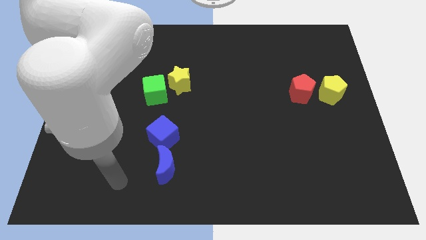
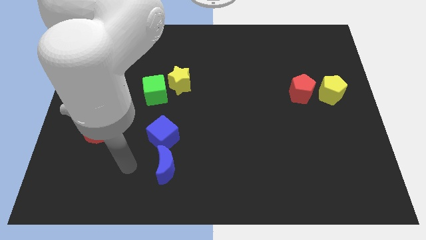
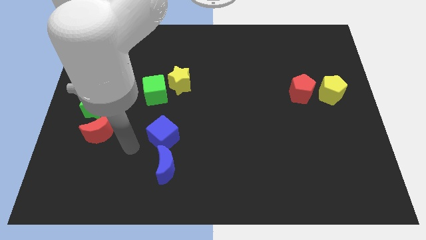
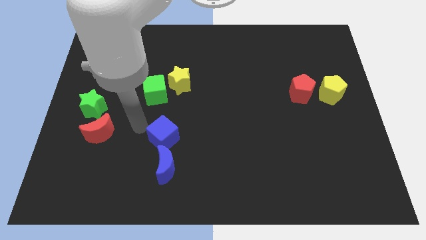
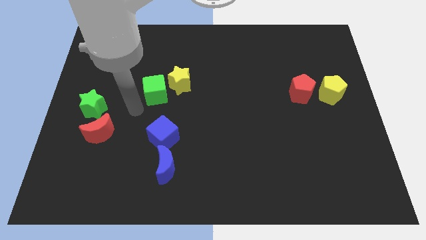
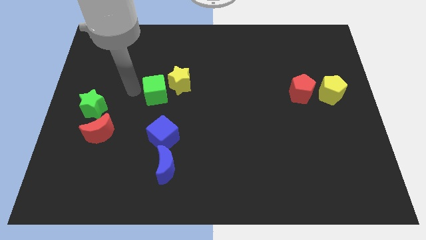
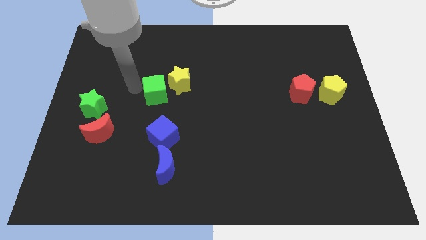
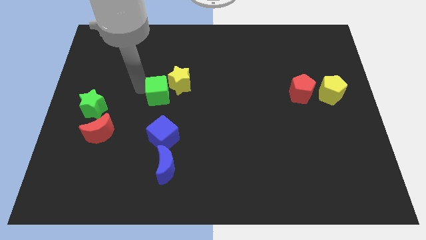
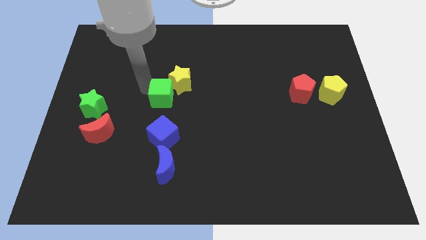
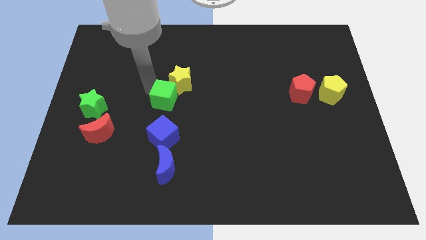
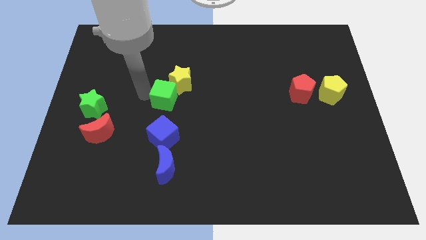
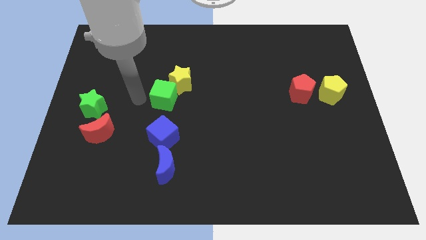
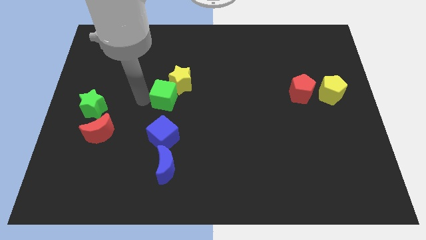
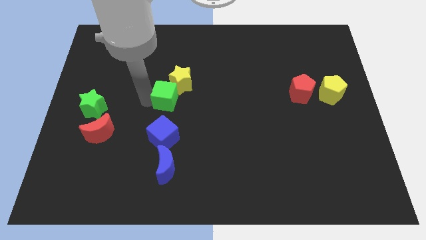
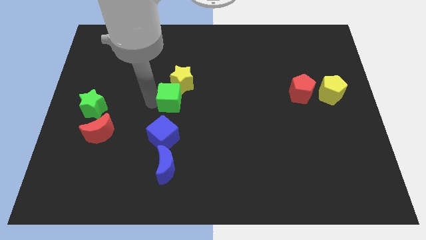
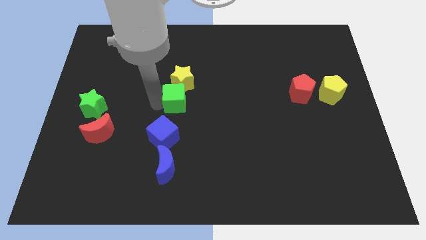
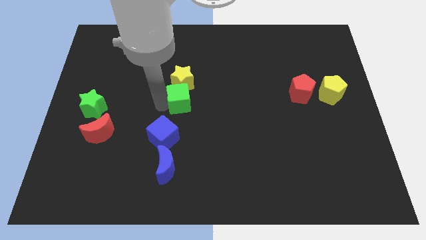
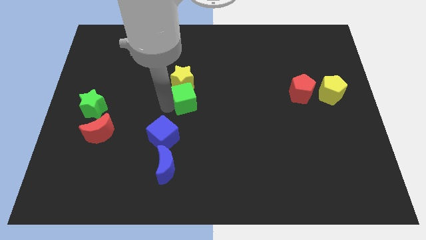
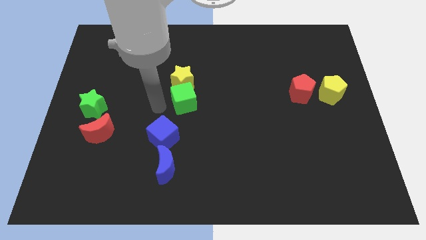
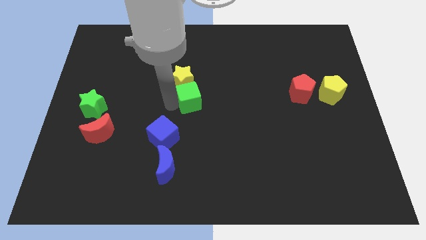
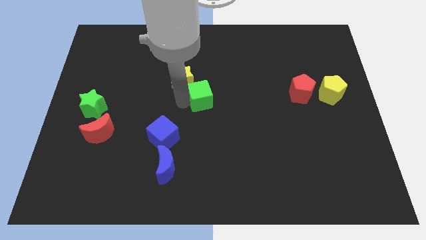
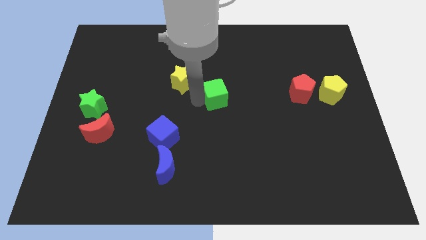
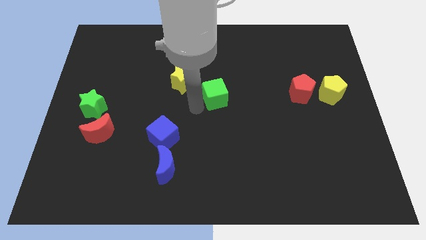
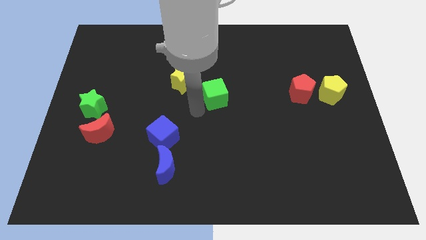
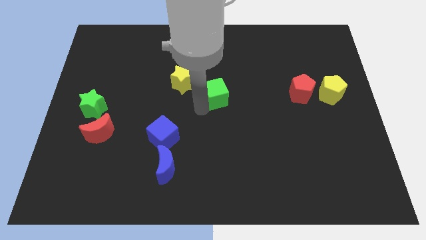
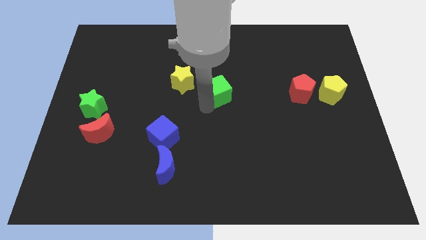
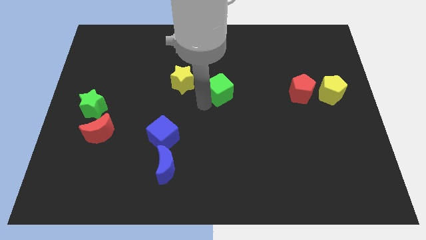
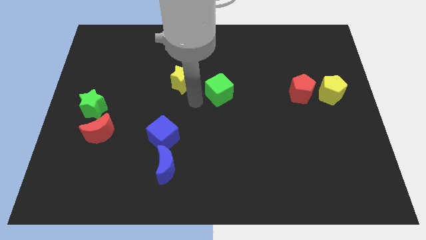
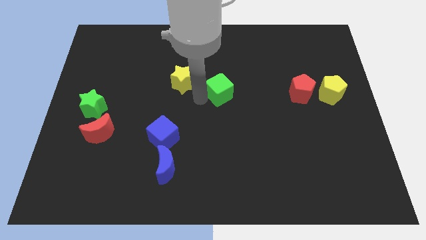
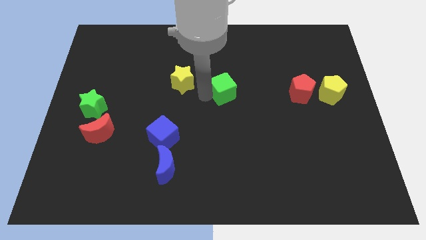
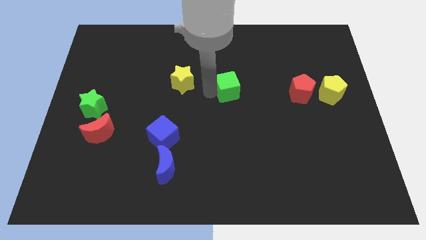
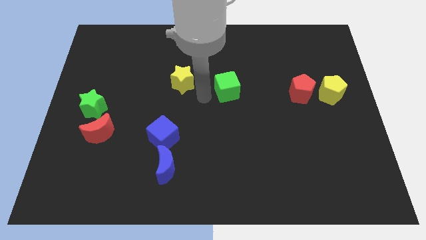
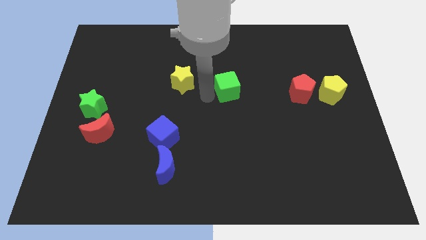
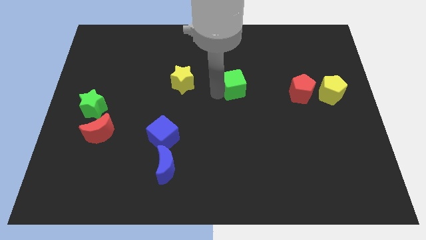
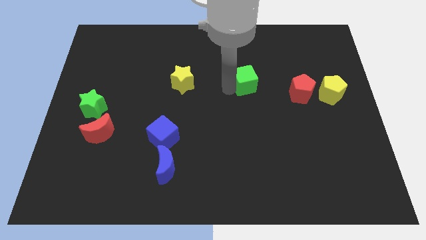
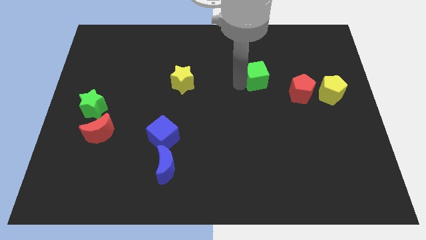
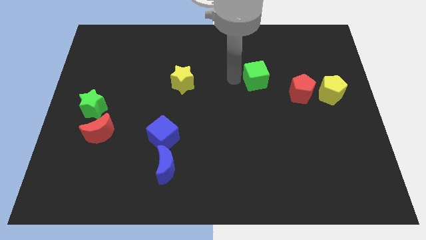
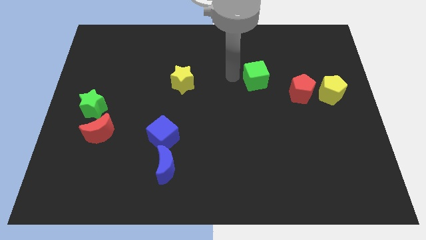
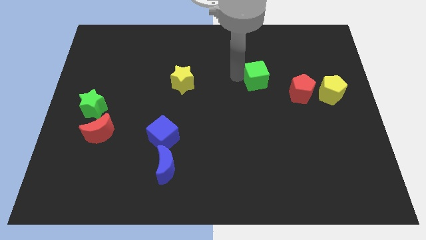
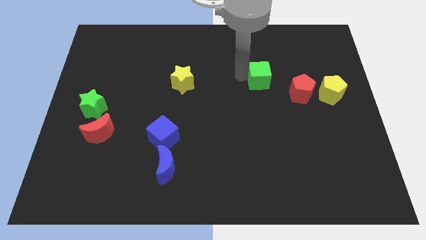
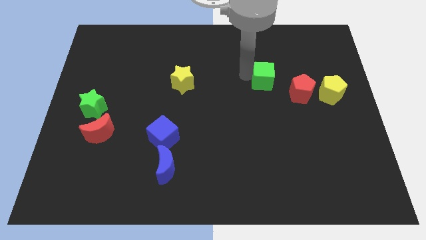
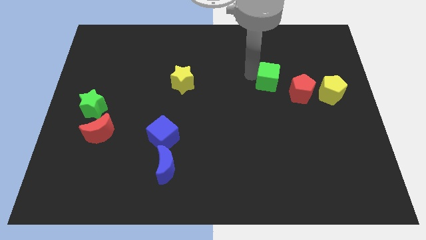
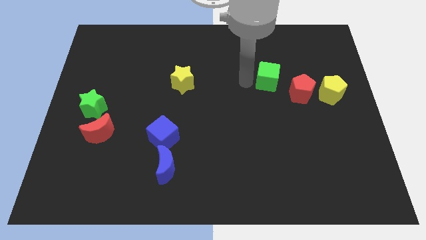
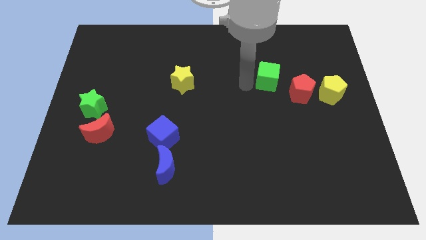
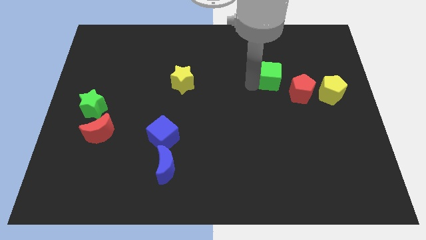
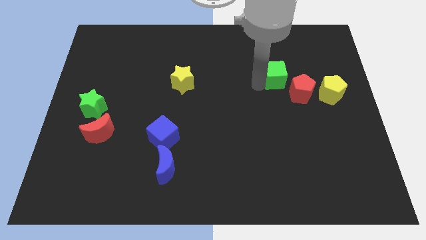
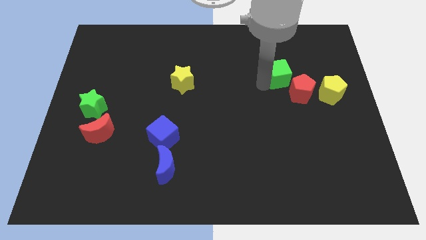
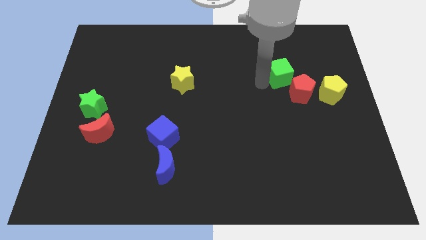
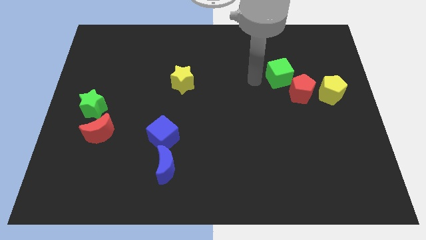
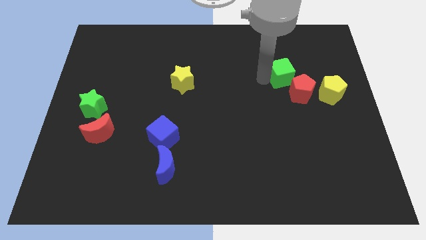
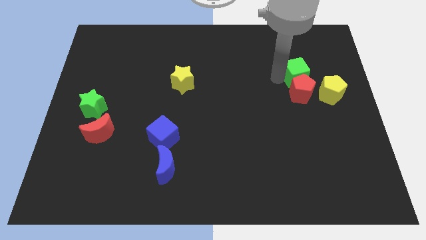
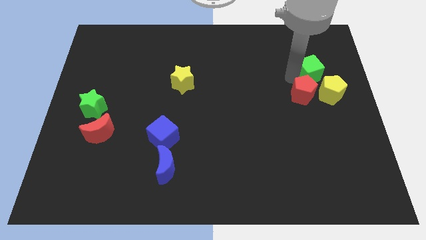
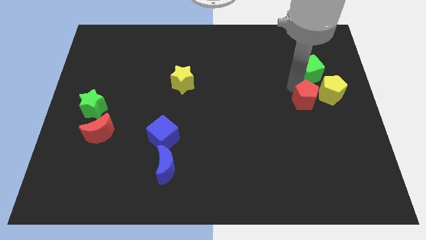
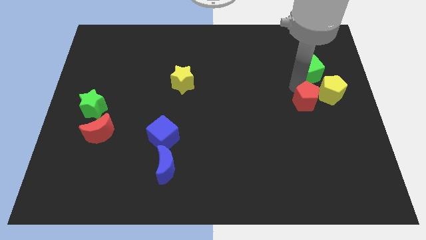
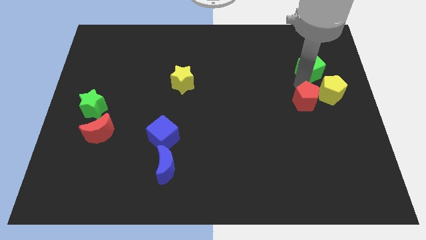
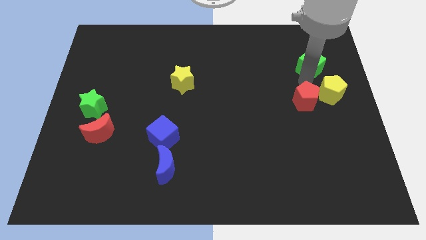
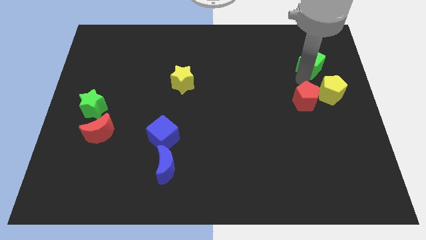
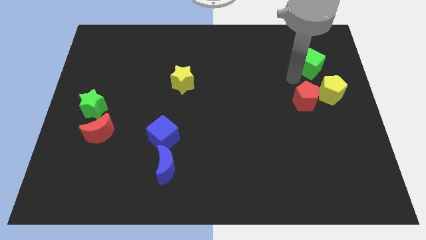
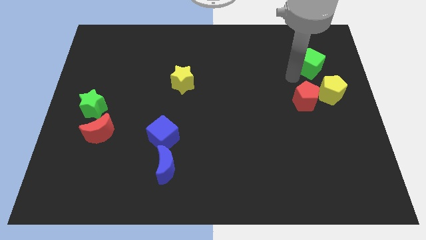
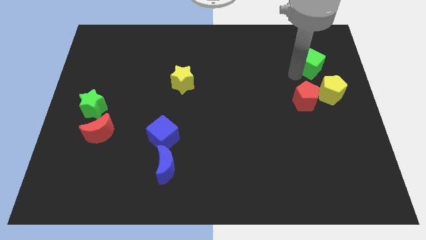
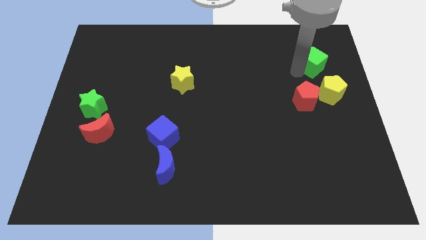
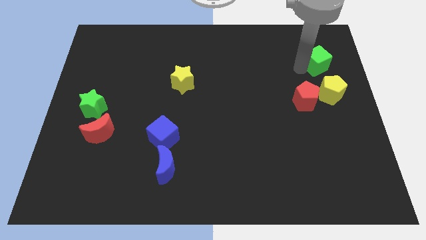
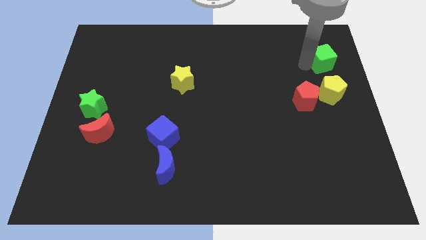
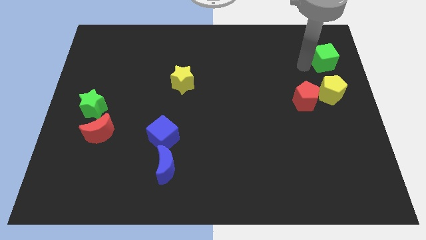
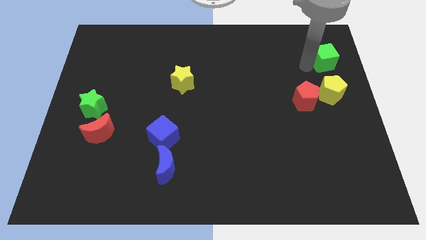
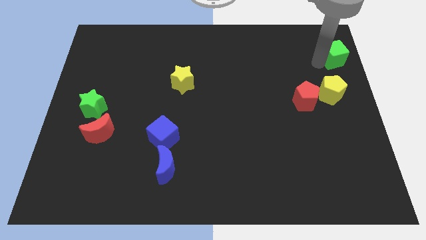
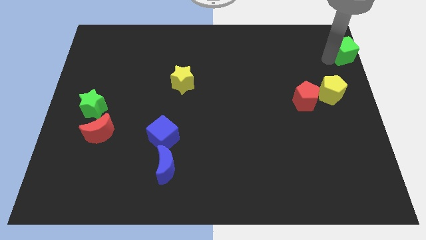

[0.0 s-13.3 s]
push the green cube to the top right
